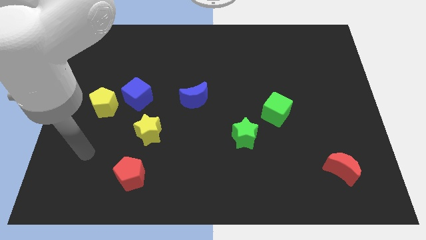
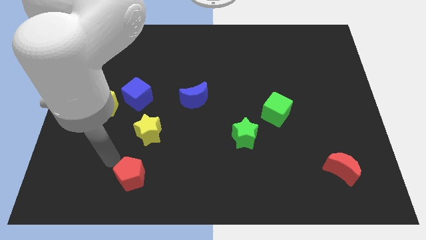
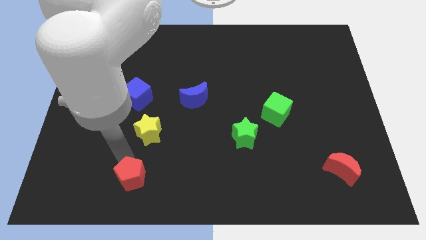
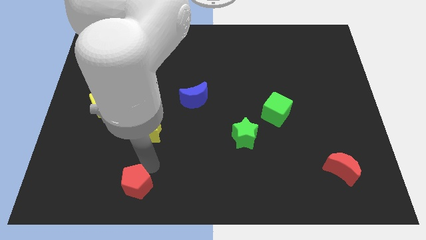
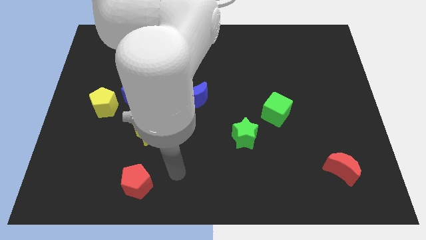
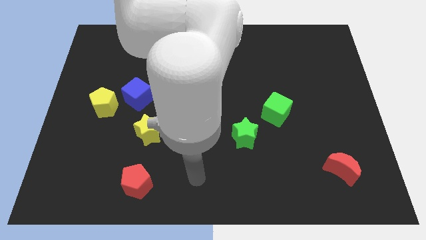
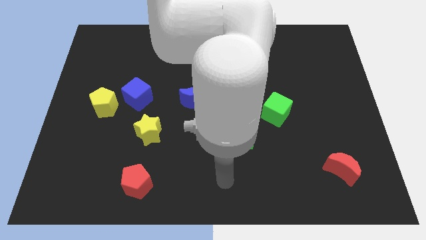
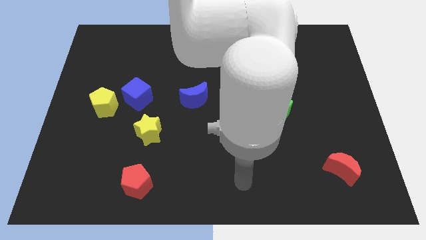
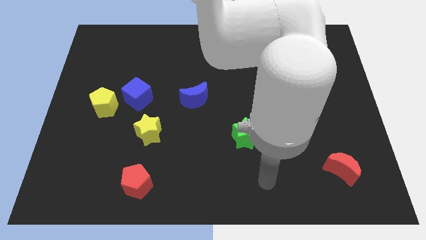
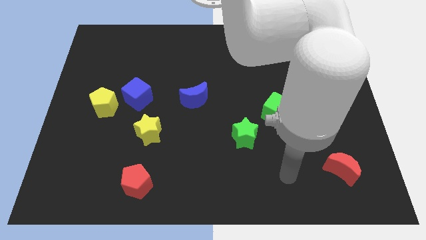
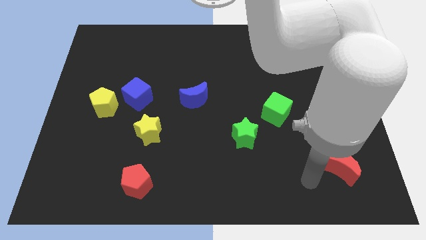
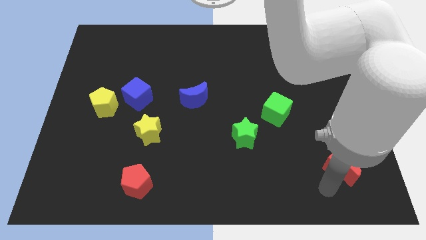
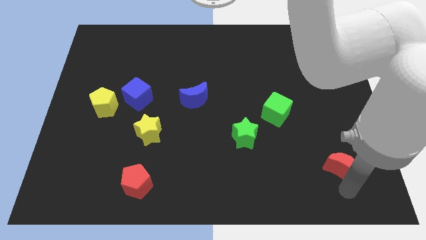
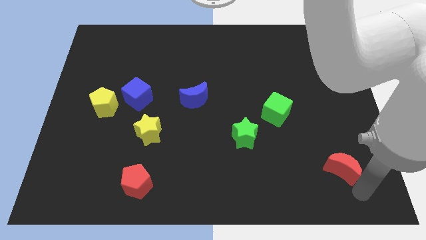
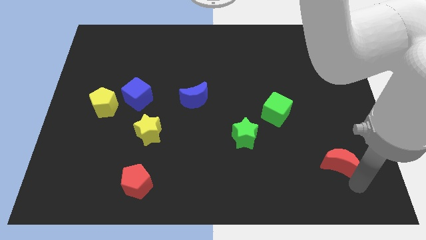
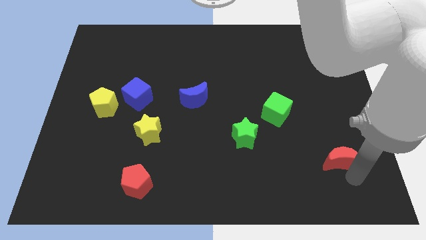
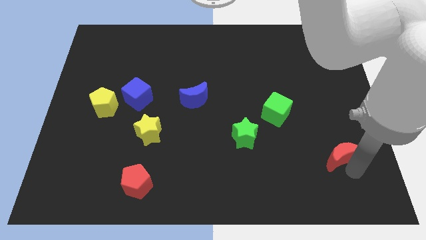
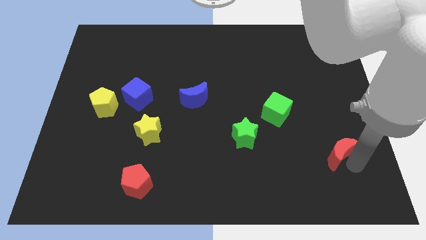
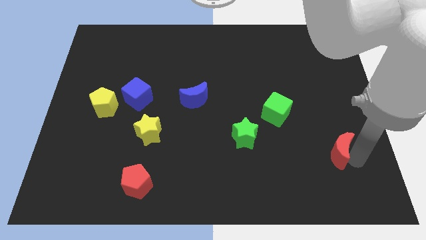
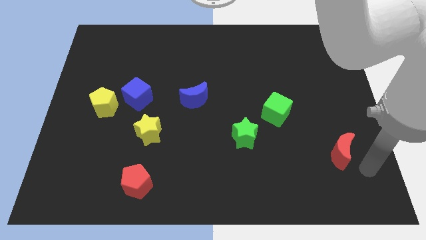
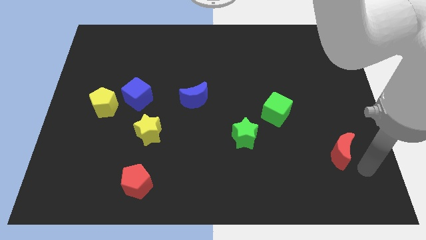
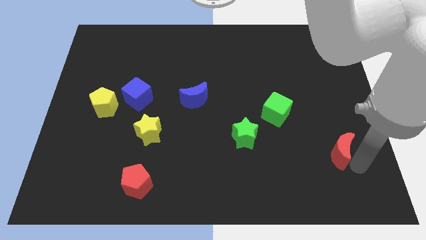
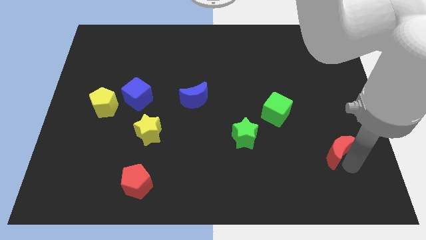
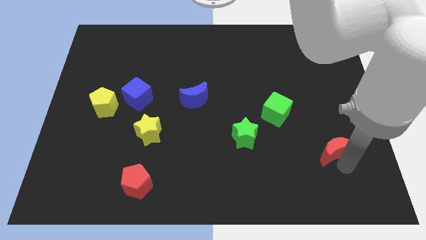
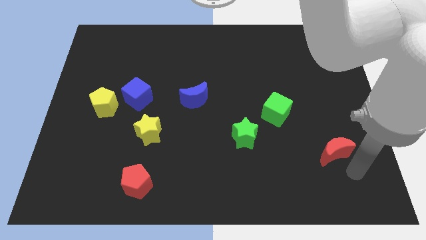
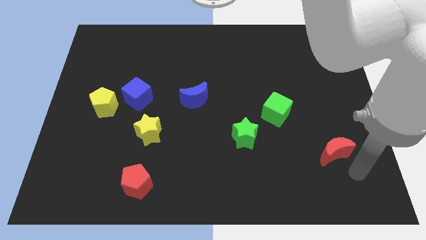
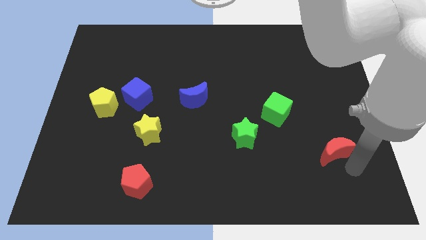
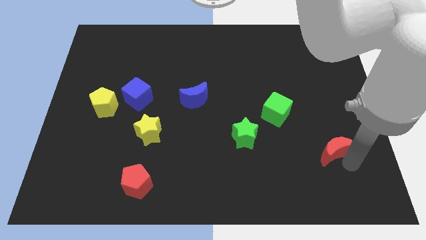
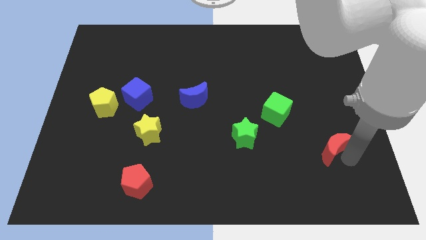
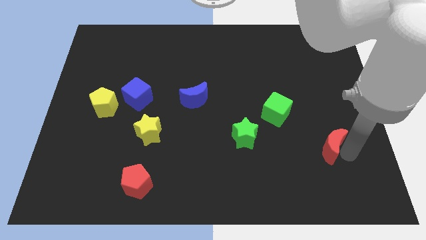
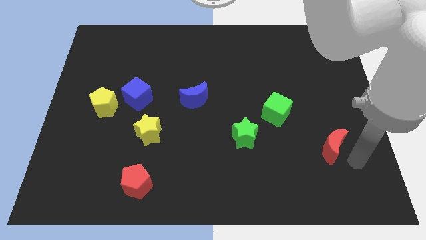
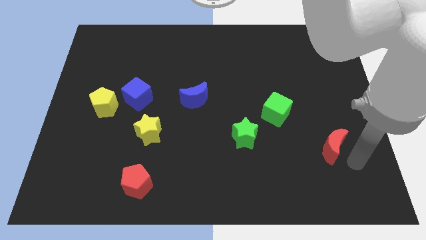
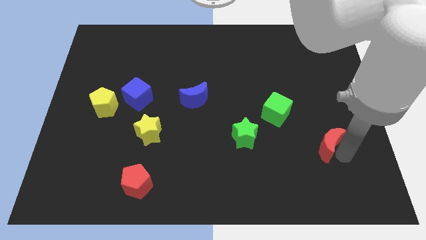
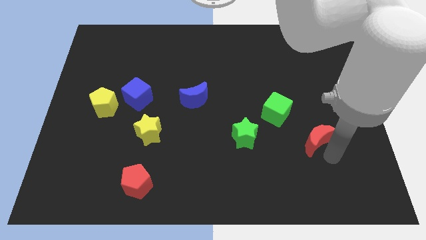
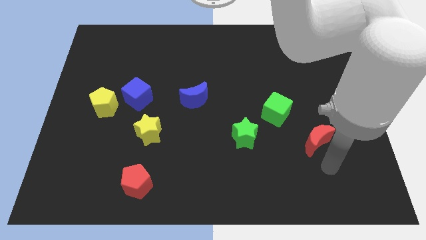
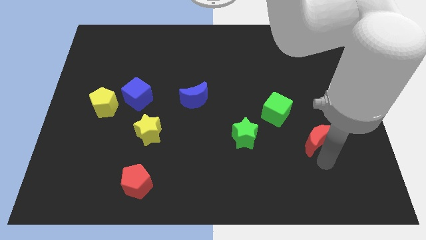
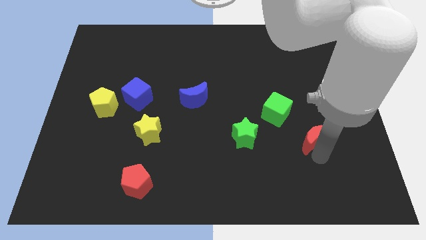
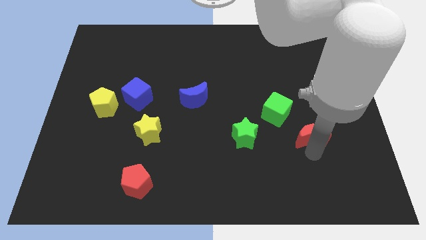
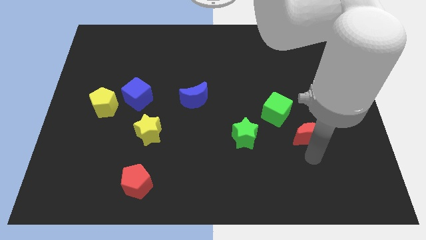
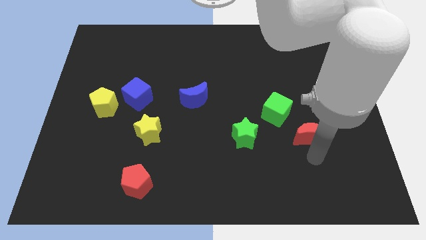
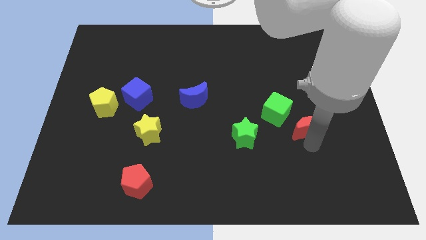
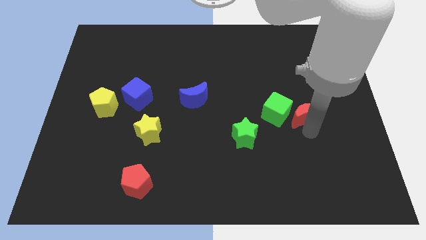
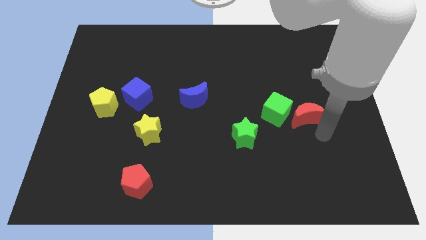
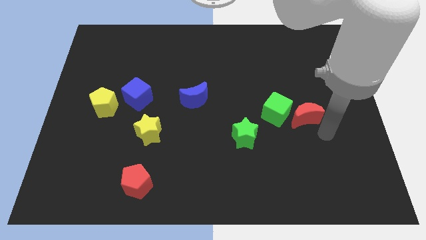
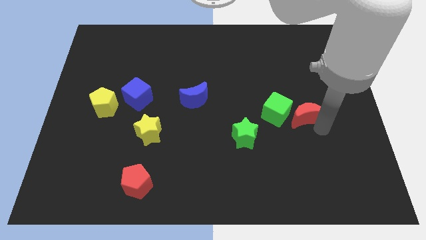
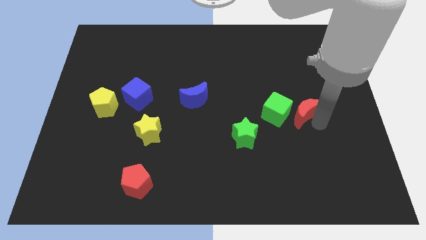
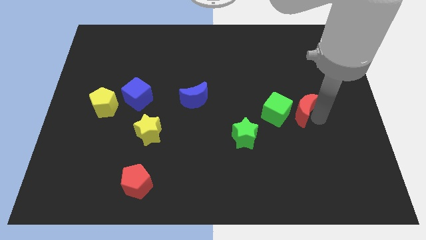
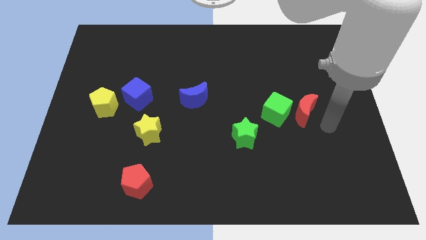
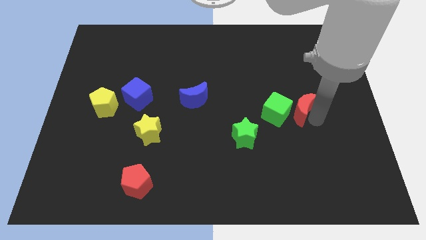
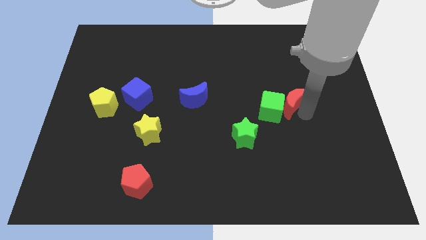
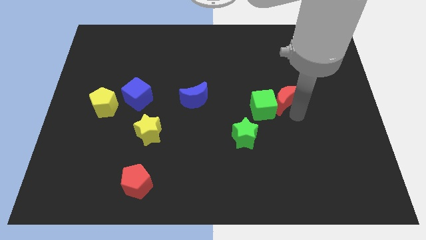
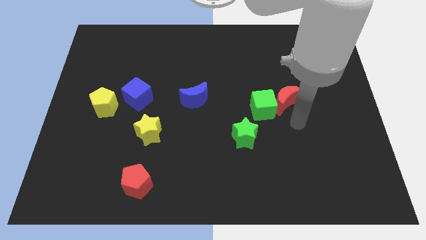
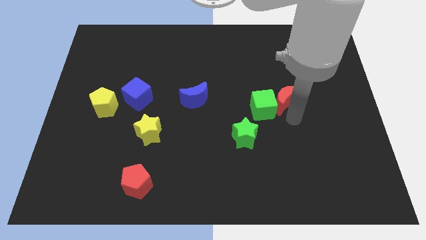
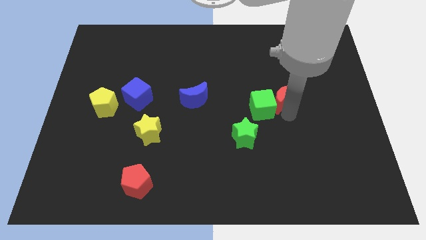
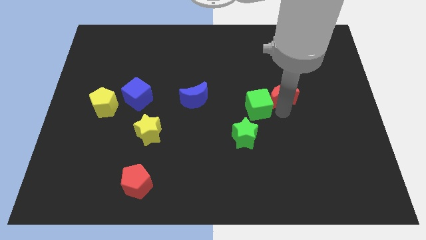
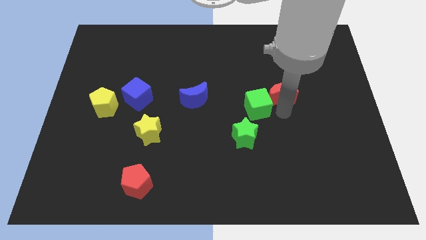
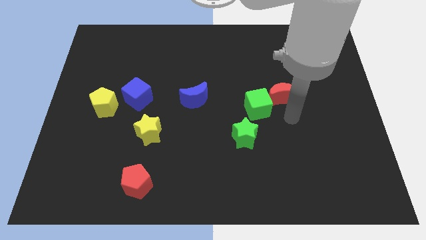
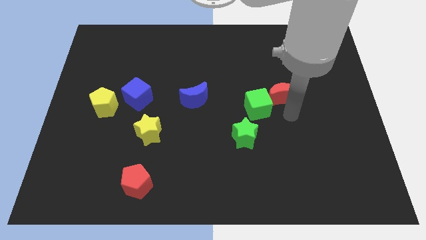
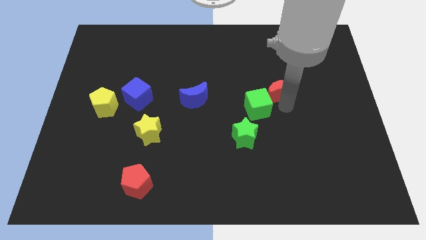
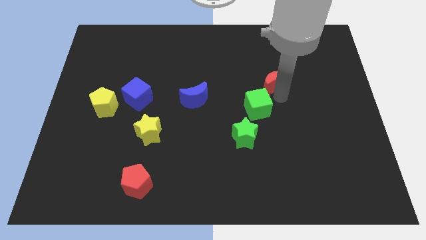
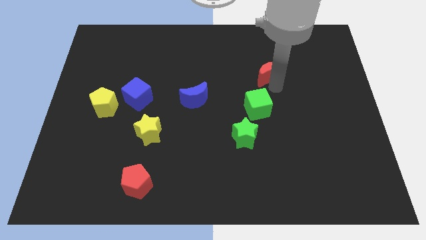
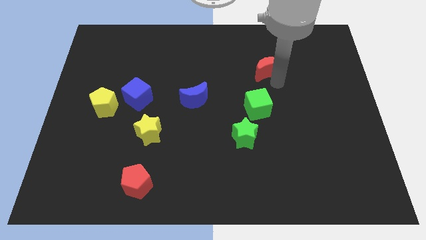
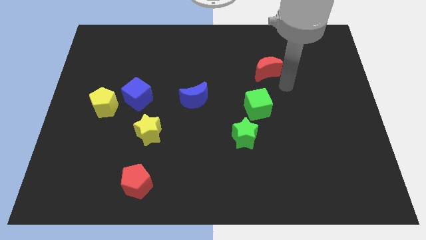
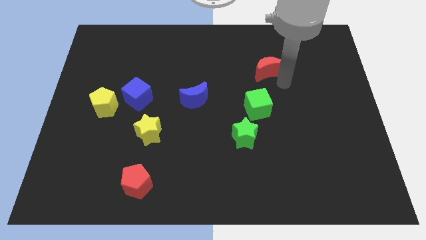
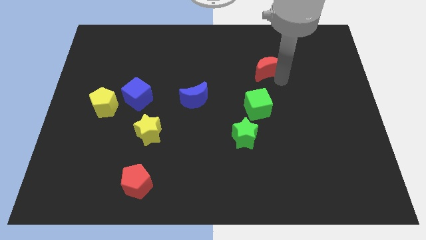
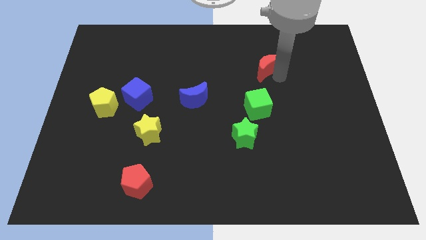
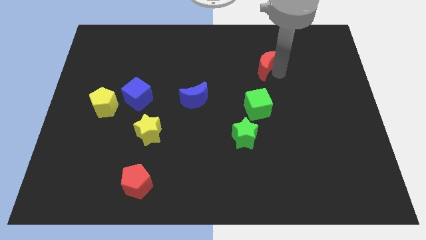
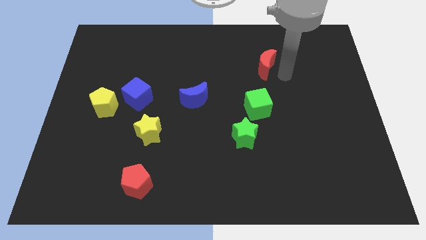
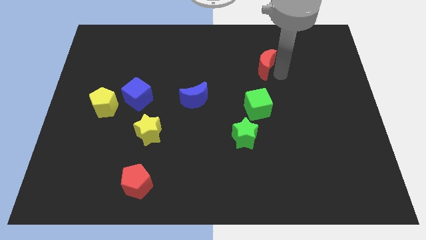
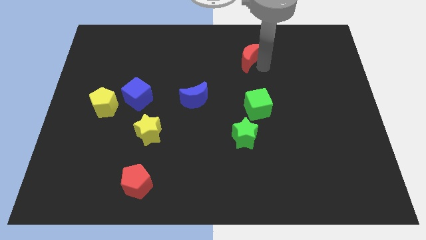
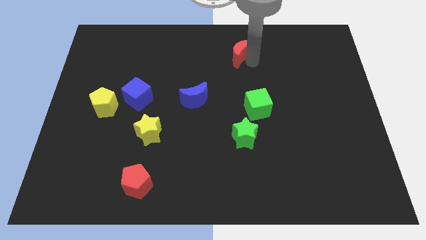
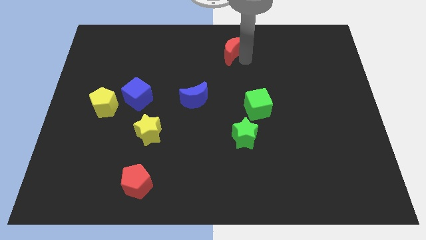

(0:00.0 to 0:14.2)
push the red moon to the top side
